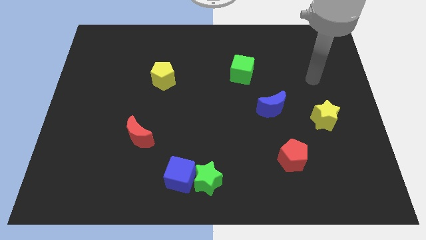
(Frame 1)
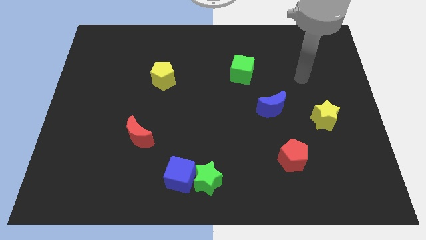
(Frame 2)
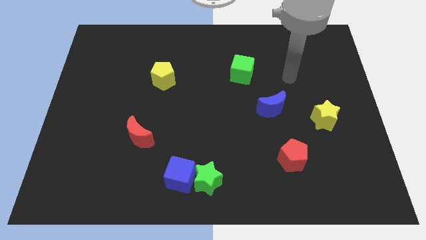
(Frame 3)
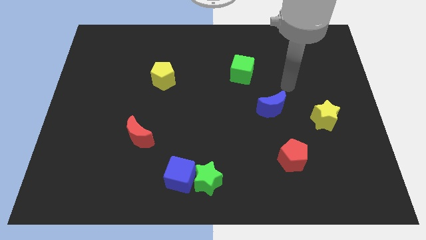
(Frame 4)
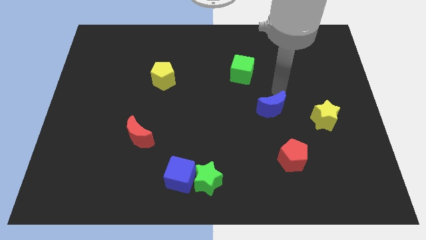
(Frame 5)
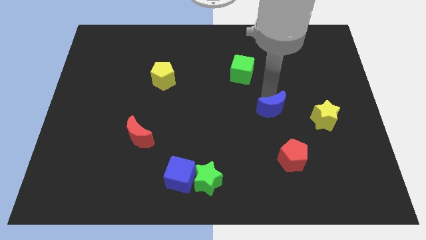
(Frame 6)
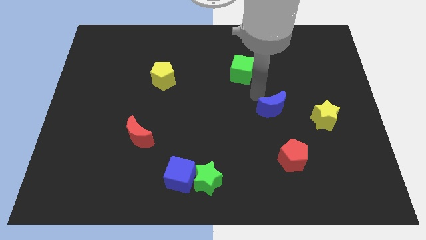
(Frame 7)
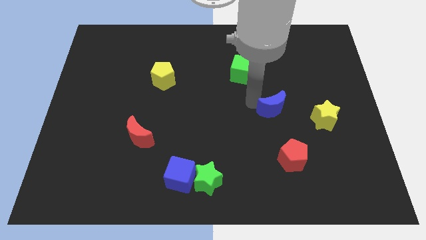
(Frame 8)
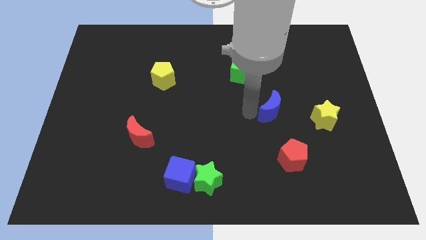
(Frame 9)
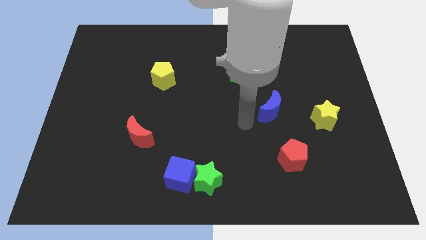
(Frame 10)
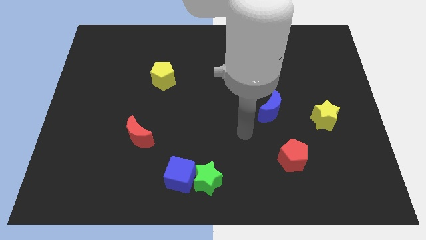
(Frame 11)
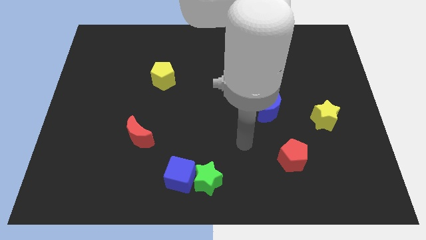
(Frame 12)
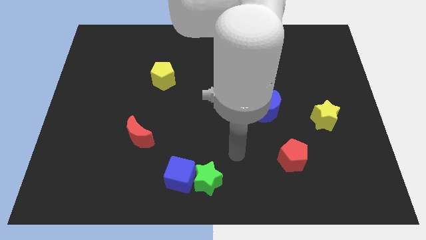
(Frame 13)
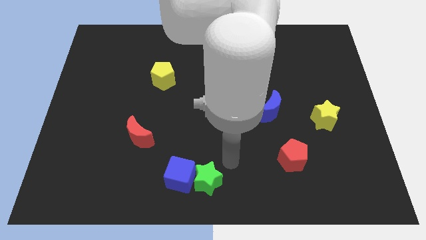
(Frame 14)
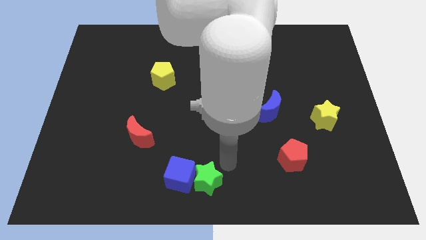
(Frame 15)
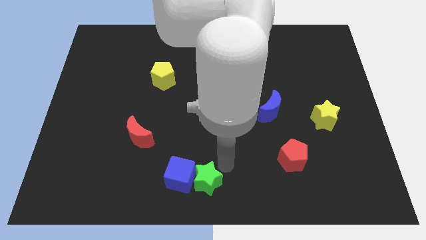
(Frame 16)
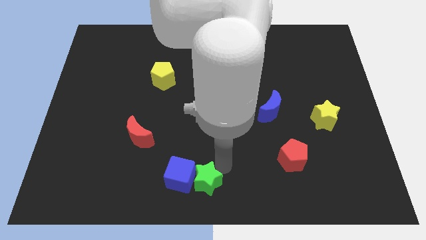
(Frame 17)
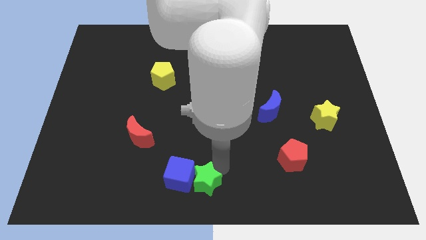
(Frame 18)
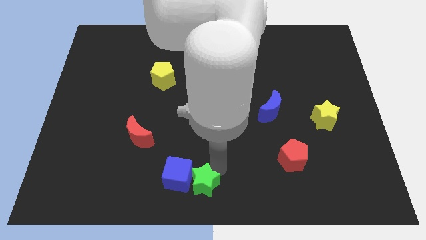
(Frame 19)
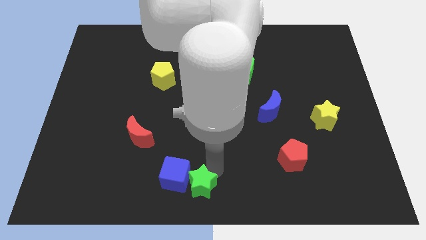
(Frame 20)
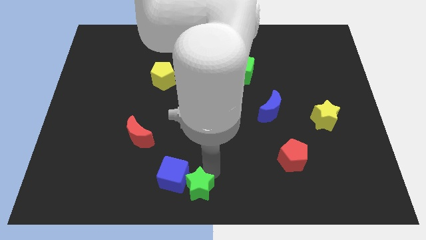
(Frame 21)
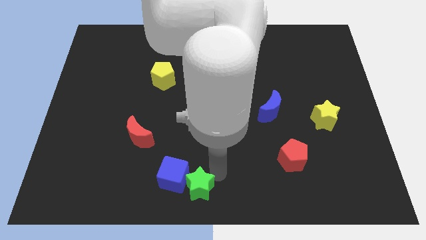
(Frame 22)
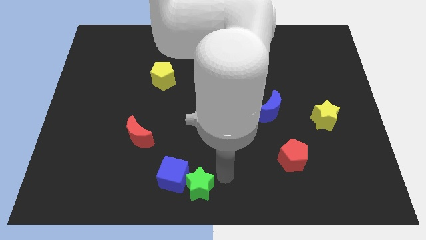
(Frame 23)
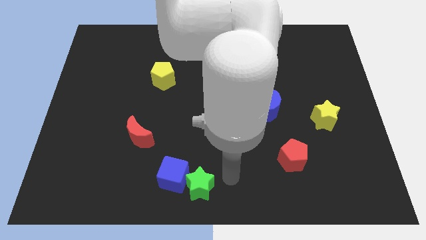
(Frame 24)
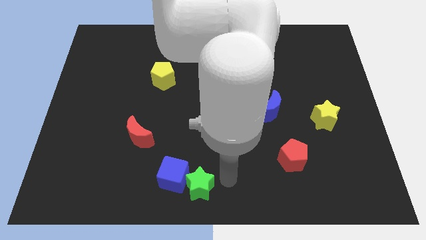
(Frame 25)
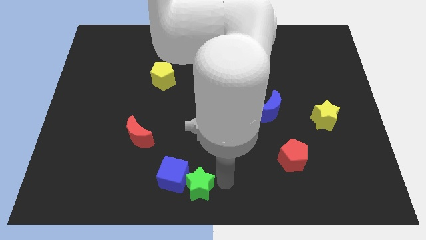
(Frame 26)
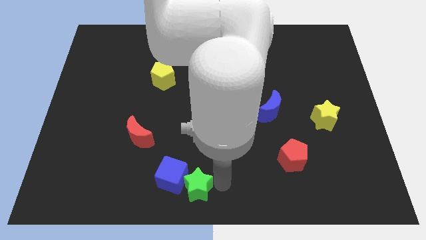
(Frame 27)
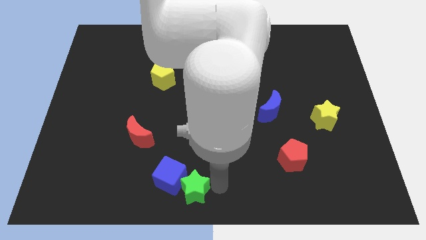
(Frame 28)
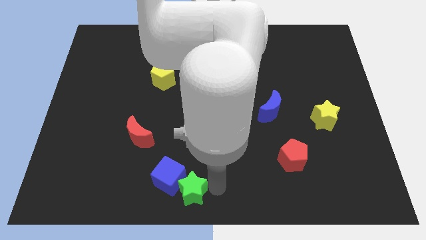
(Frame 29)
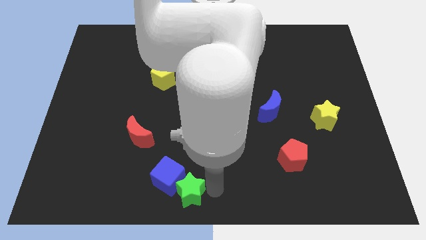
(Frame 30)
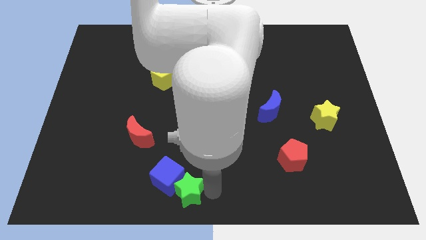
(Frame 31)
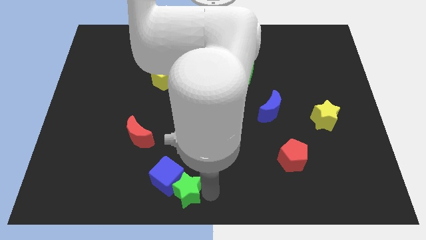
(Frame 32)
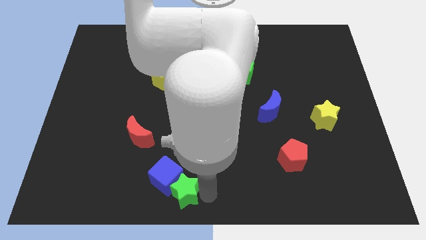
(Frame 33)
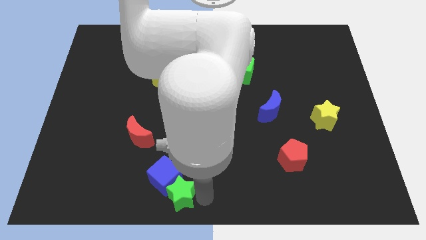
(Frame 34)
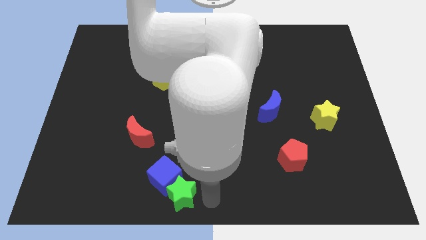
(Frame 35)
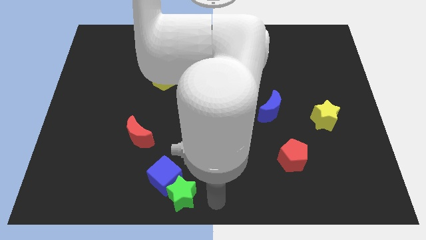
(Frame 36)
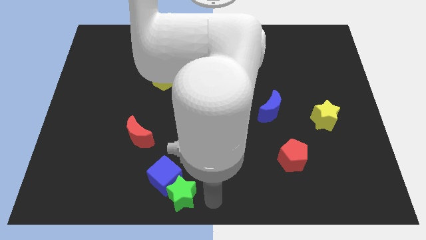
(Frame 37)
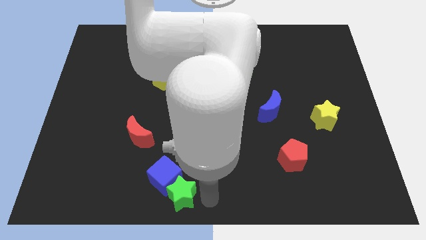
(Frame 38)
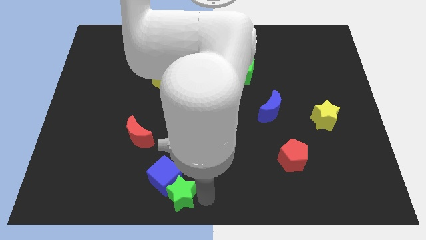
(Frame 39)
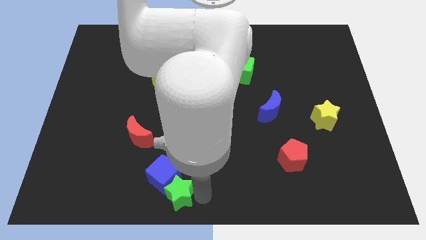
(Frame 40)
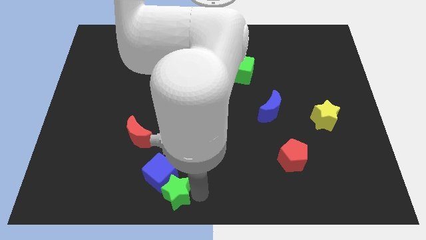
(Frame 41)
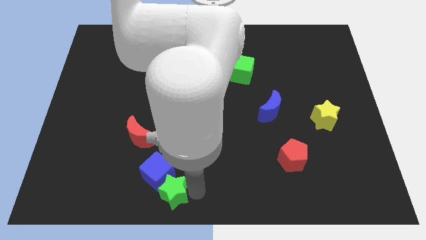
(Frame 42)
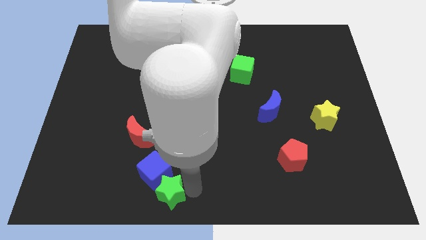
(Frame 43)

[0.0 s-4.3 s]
push the green star a little bit left

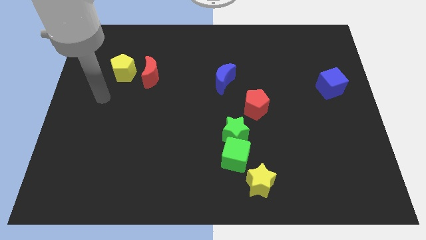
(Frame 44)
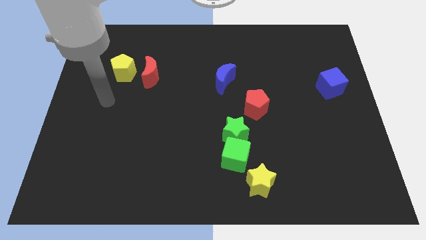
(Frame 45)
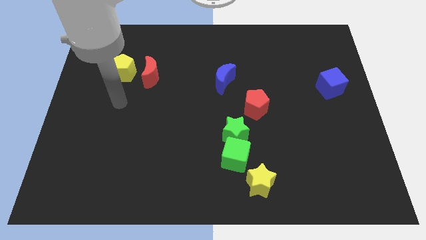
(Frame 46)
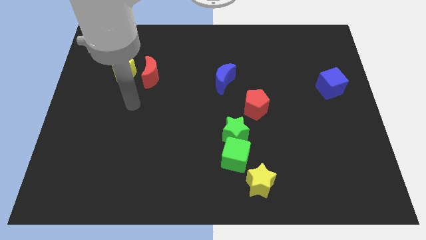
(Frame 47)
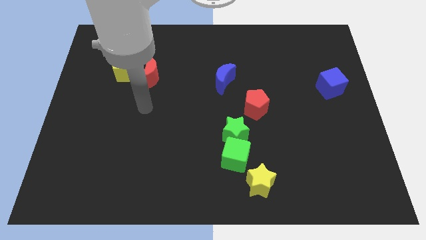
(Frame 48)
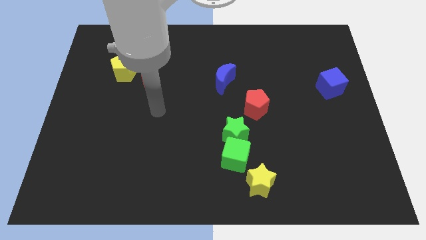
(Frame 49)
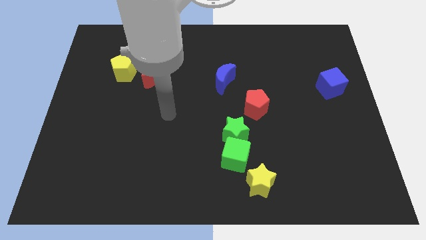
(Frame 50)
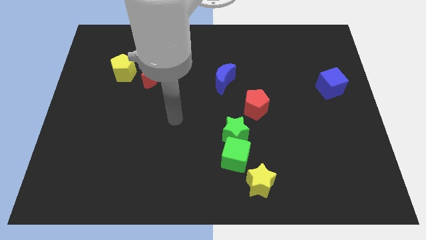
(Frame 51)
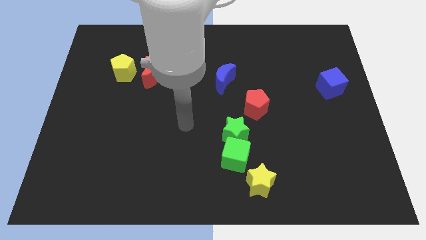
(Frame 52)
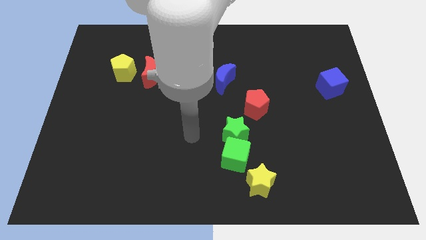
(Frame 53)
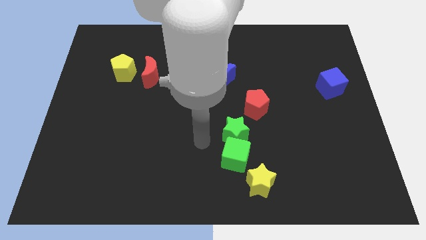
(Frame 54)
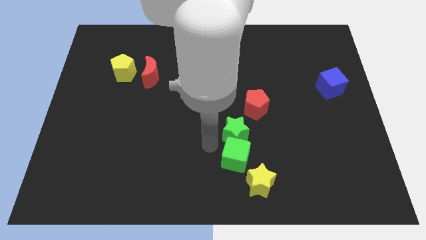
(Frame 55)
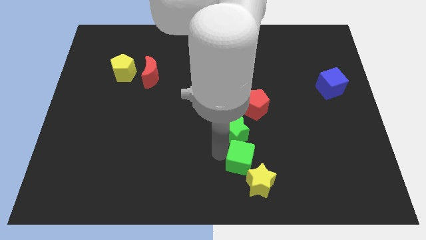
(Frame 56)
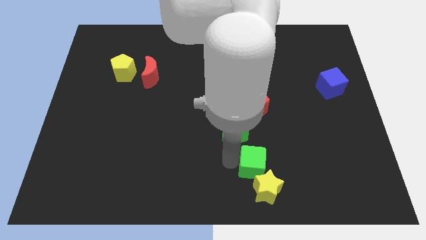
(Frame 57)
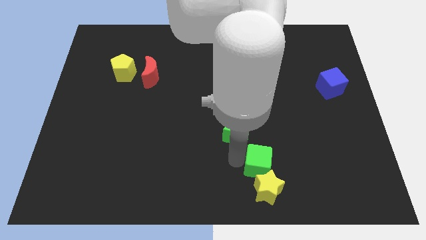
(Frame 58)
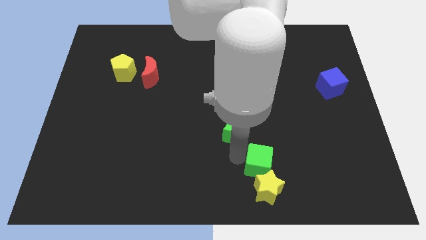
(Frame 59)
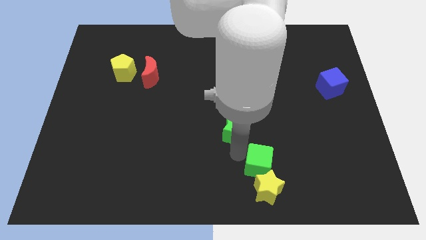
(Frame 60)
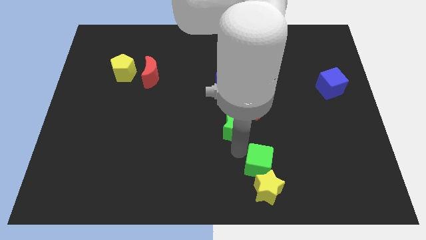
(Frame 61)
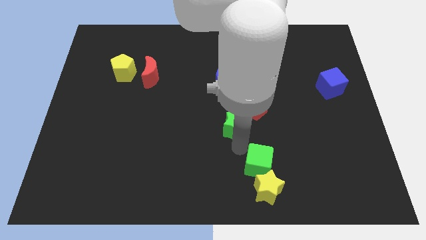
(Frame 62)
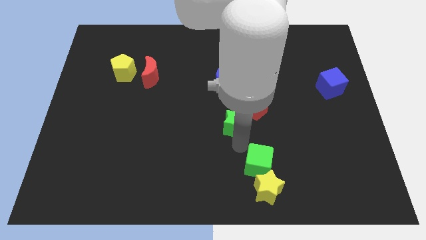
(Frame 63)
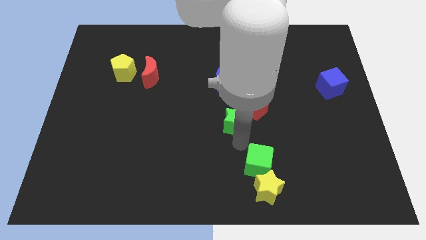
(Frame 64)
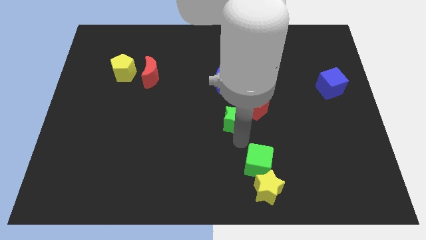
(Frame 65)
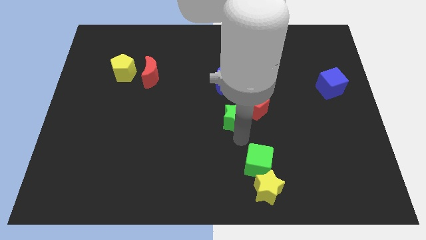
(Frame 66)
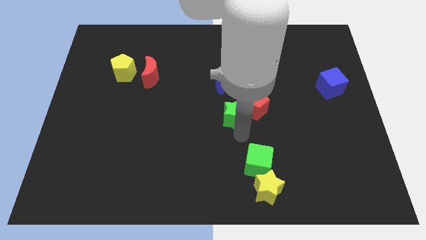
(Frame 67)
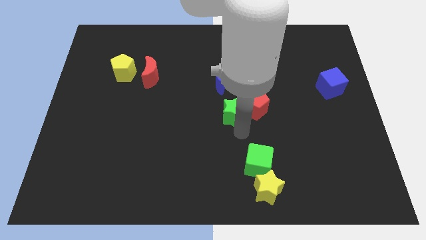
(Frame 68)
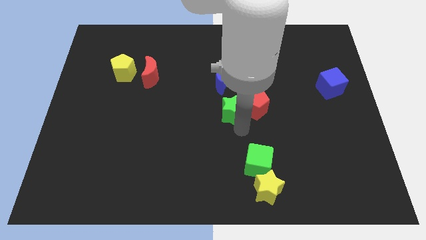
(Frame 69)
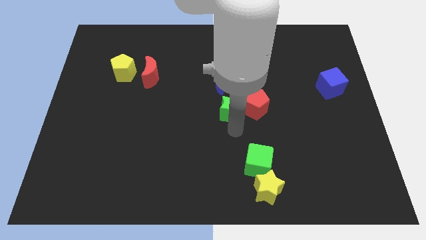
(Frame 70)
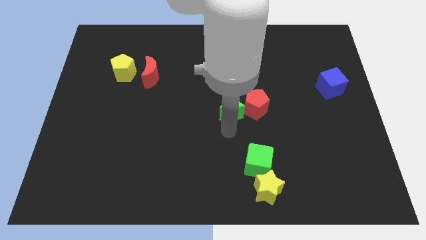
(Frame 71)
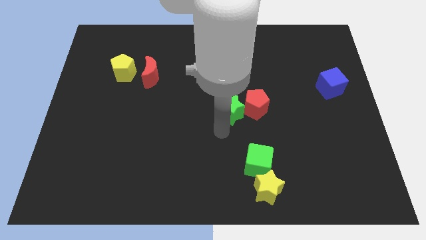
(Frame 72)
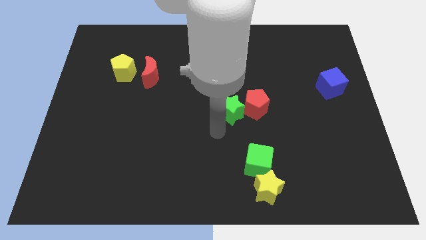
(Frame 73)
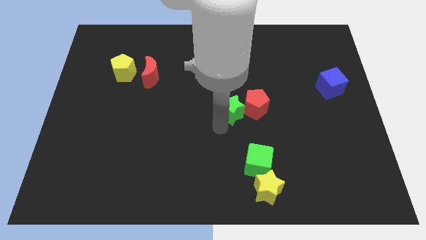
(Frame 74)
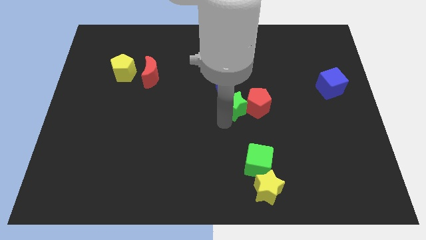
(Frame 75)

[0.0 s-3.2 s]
slightly push the green star up

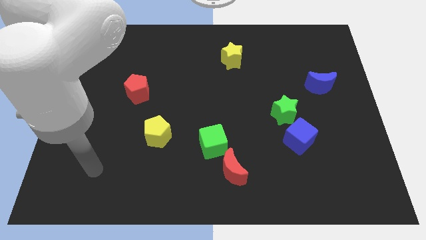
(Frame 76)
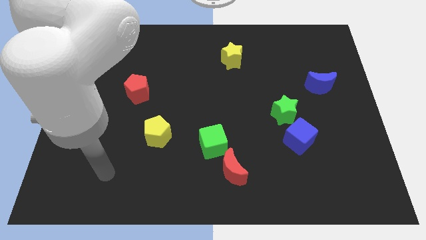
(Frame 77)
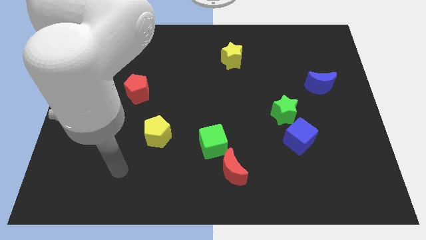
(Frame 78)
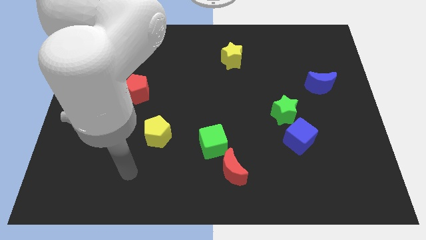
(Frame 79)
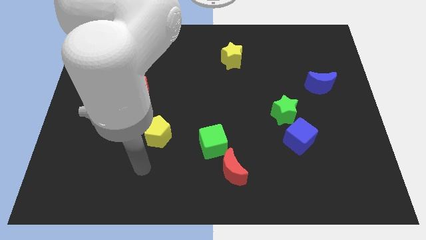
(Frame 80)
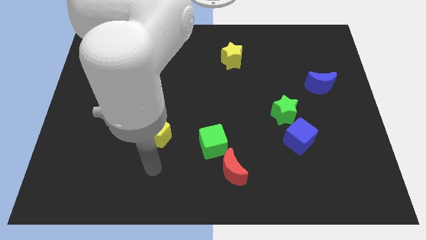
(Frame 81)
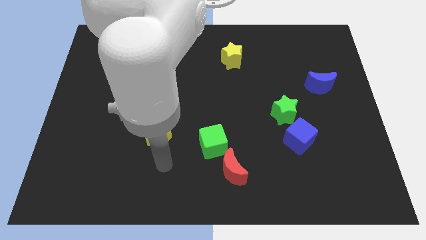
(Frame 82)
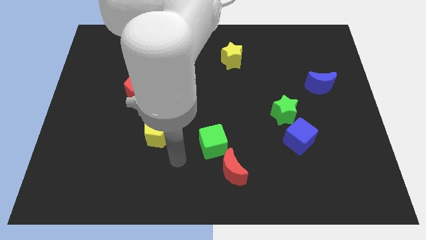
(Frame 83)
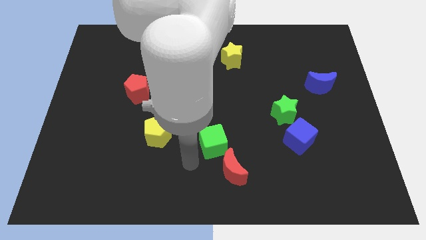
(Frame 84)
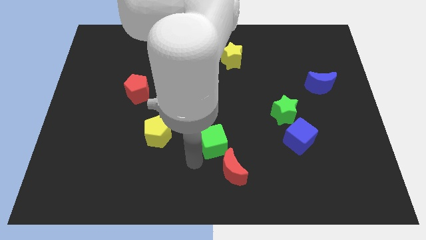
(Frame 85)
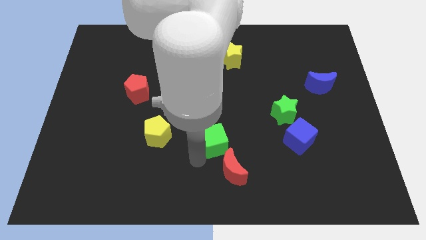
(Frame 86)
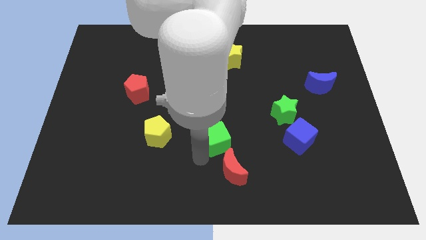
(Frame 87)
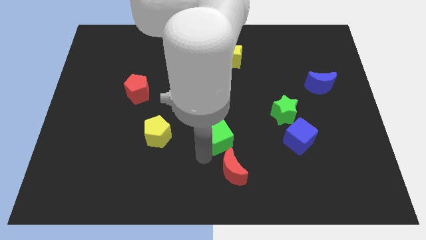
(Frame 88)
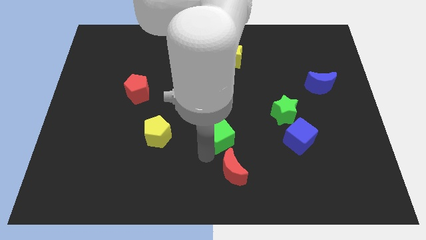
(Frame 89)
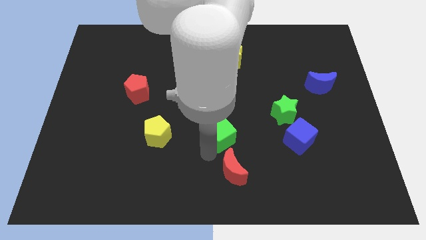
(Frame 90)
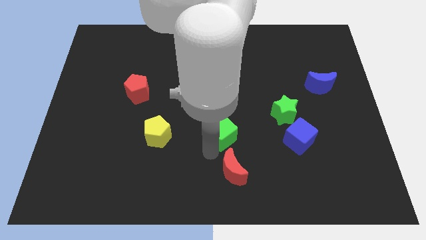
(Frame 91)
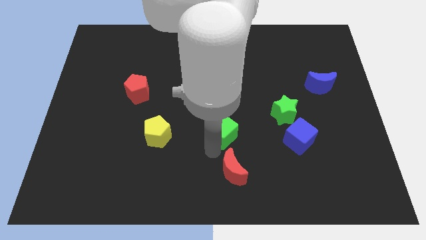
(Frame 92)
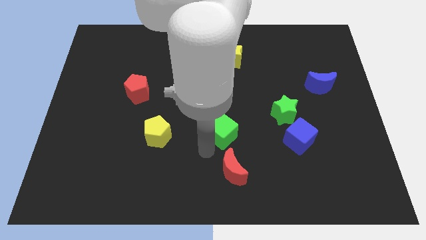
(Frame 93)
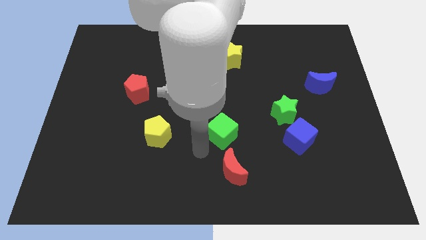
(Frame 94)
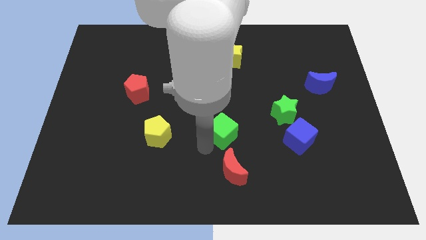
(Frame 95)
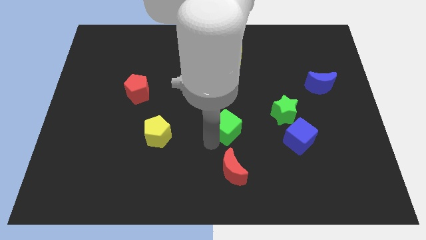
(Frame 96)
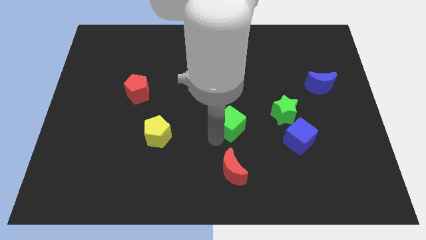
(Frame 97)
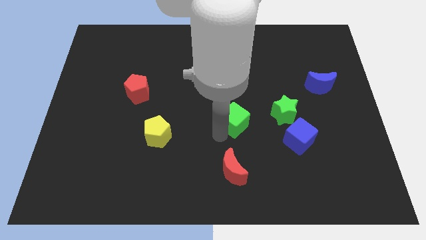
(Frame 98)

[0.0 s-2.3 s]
slightly move the green cube upwards and then to the right
